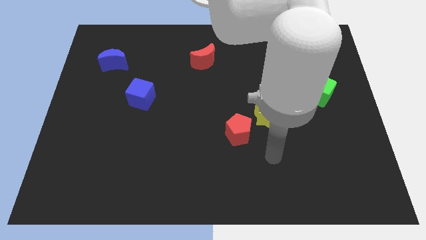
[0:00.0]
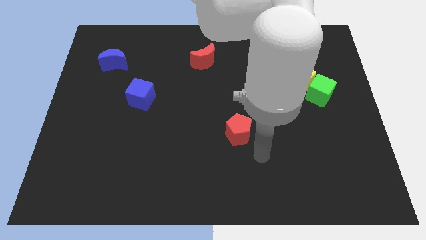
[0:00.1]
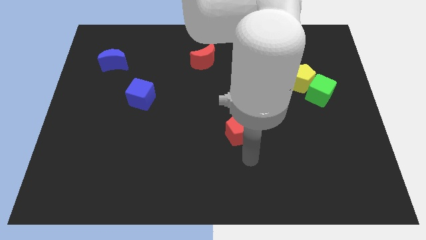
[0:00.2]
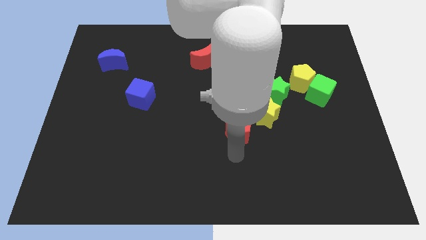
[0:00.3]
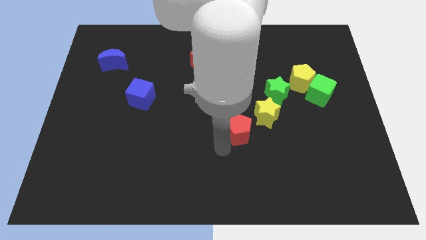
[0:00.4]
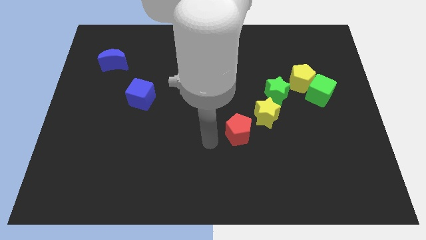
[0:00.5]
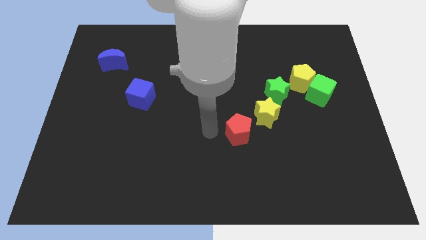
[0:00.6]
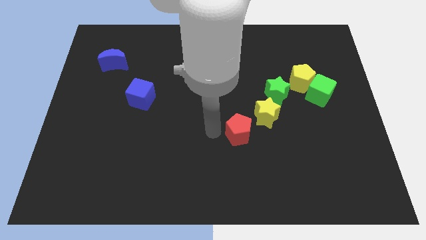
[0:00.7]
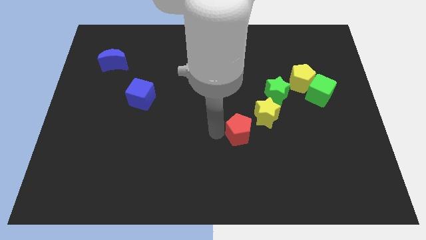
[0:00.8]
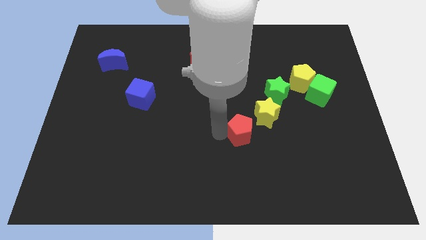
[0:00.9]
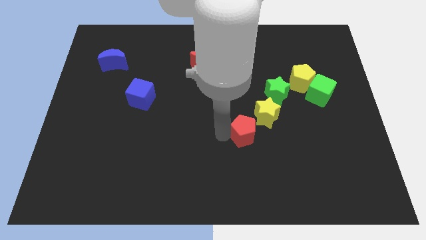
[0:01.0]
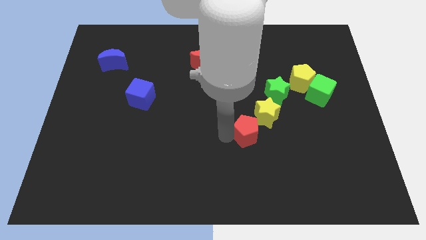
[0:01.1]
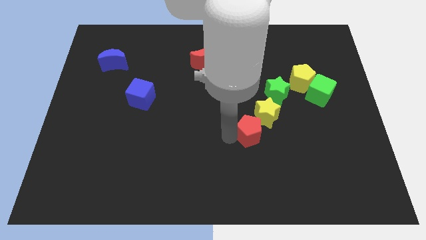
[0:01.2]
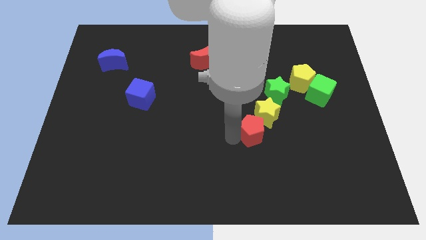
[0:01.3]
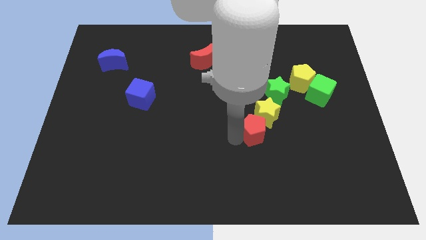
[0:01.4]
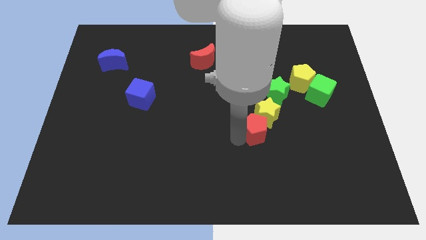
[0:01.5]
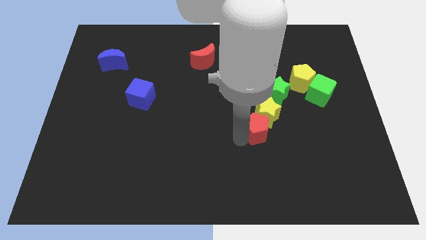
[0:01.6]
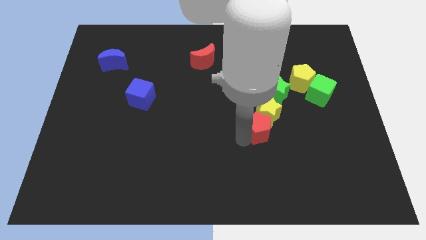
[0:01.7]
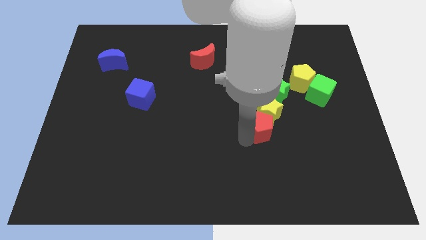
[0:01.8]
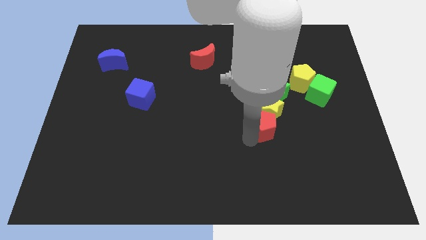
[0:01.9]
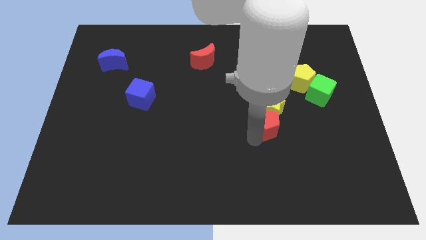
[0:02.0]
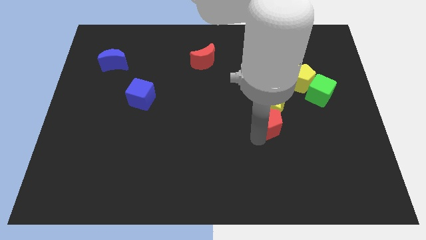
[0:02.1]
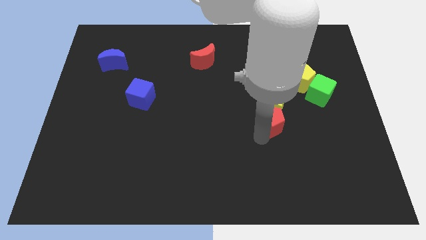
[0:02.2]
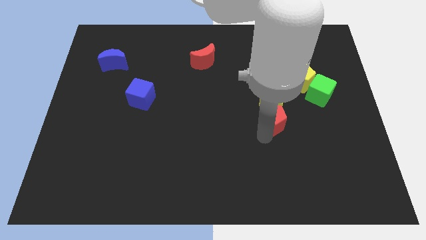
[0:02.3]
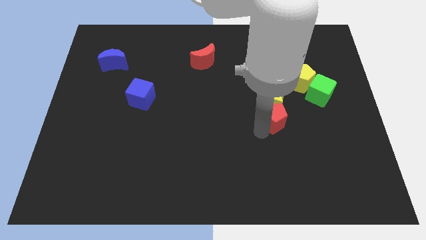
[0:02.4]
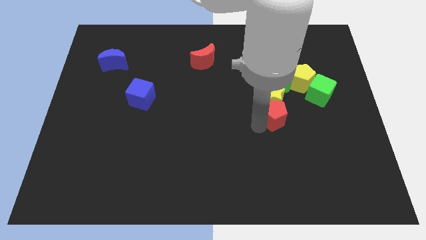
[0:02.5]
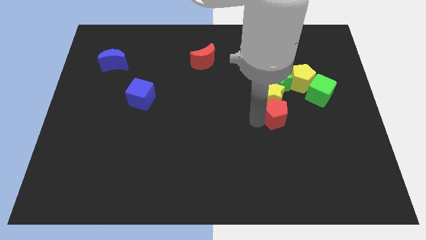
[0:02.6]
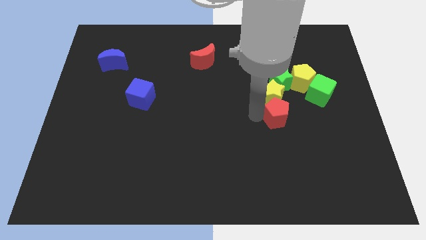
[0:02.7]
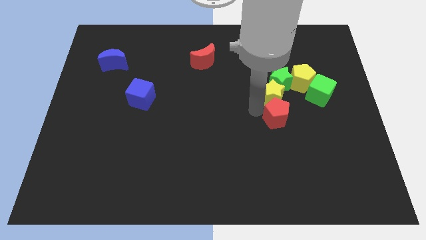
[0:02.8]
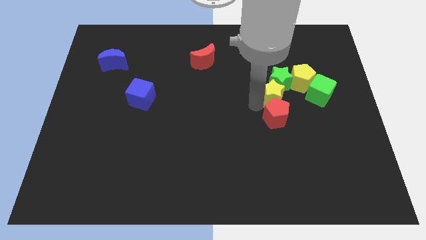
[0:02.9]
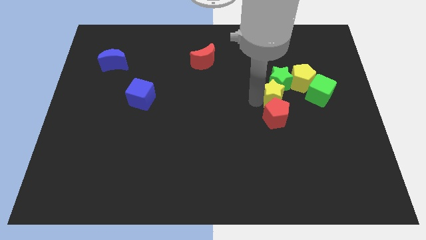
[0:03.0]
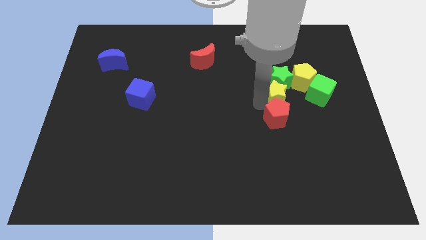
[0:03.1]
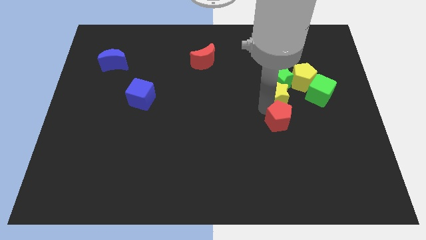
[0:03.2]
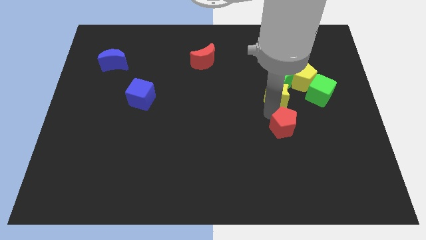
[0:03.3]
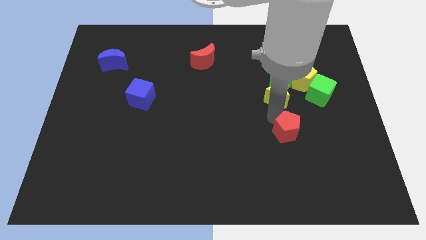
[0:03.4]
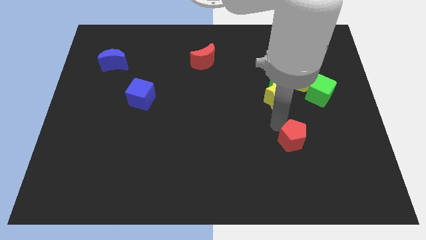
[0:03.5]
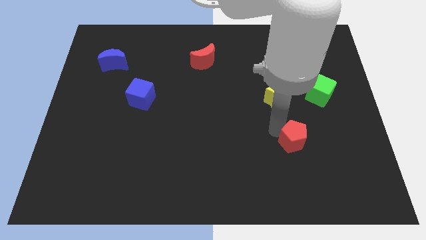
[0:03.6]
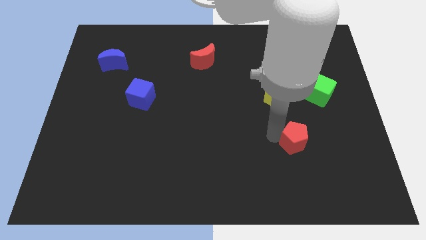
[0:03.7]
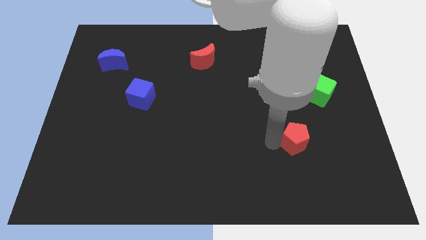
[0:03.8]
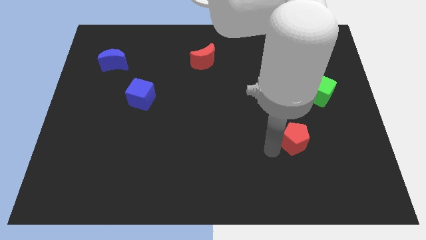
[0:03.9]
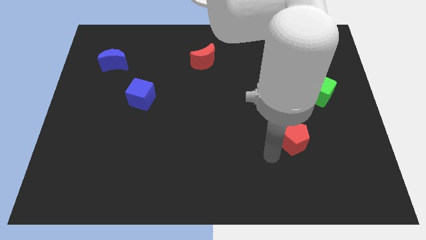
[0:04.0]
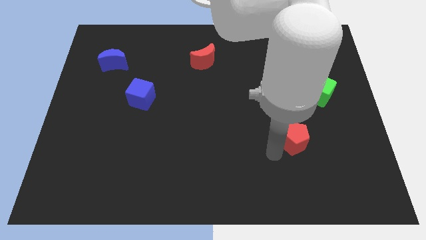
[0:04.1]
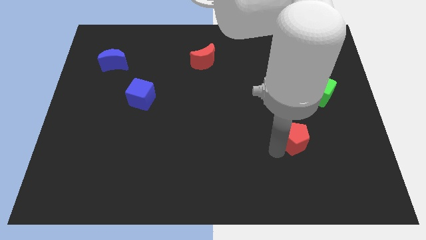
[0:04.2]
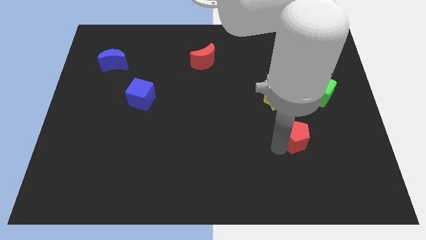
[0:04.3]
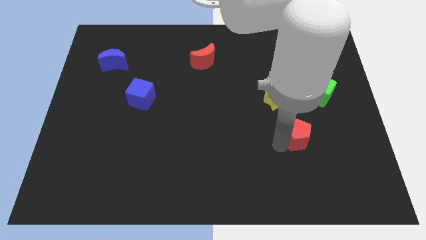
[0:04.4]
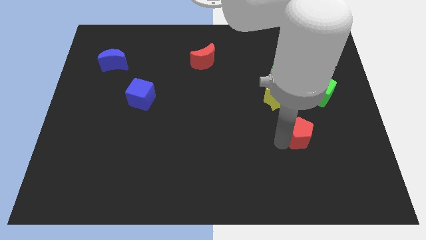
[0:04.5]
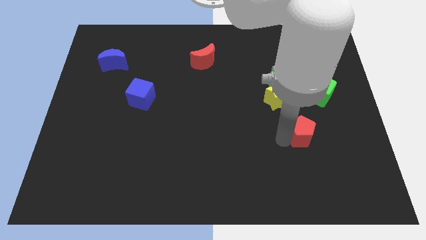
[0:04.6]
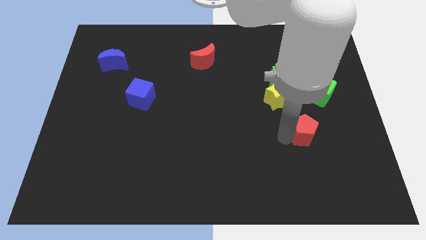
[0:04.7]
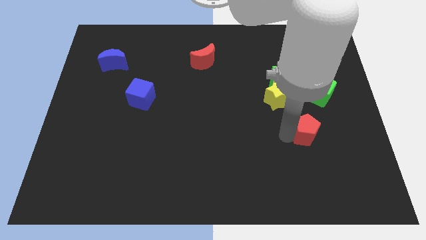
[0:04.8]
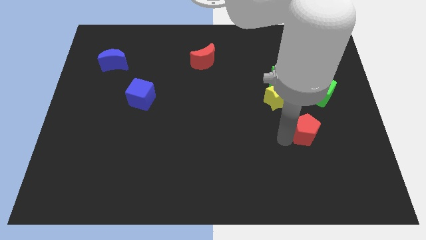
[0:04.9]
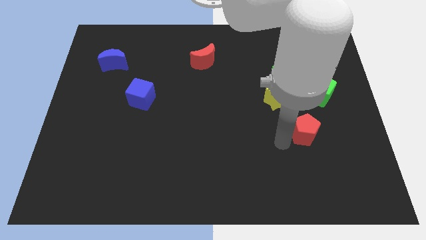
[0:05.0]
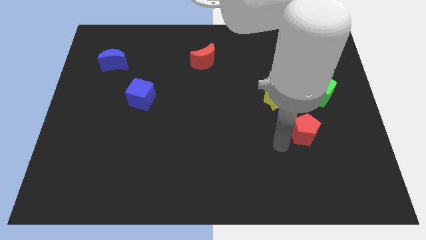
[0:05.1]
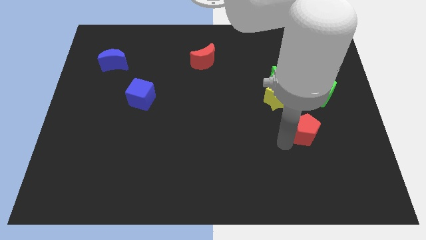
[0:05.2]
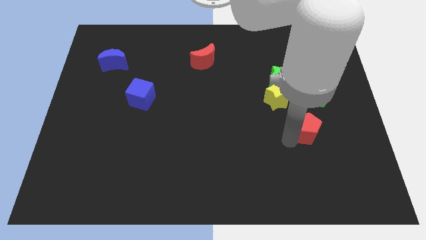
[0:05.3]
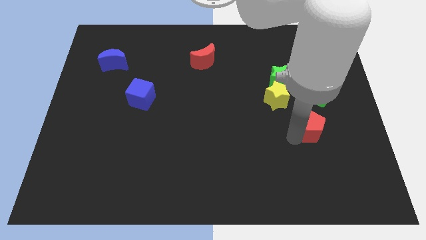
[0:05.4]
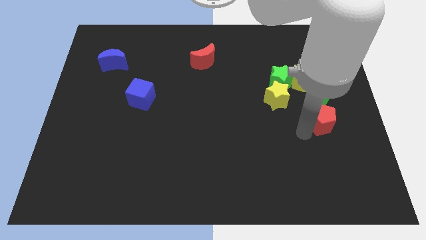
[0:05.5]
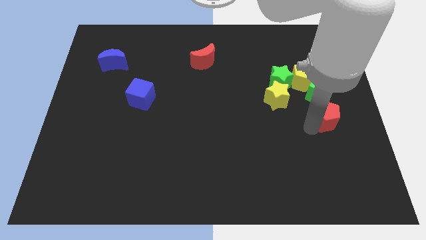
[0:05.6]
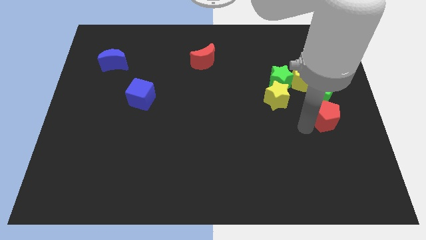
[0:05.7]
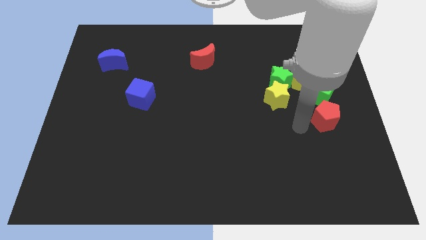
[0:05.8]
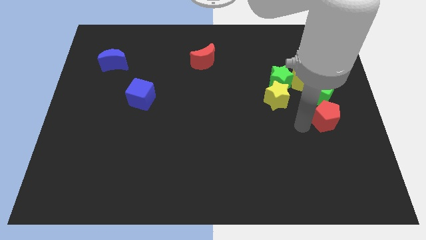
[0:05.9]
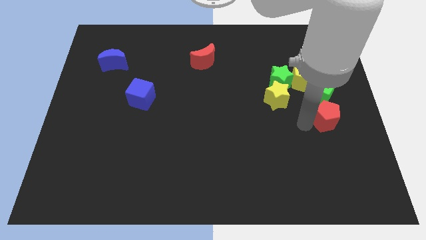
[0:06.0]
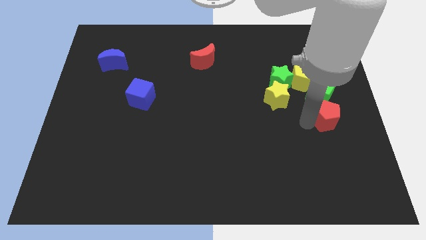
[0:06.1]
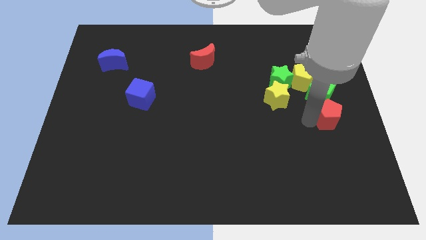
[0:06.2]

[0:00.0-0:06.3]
put the red pentagon to the right side

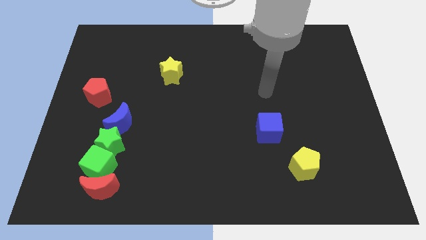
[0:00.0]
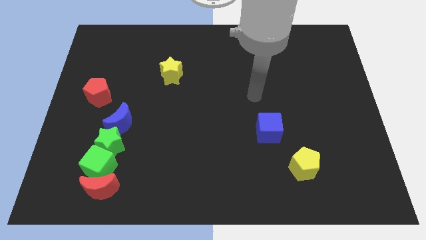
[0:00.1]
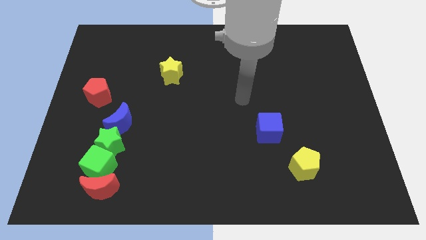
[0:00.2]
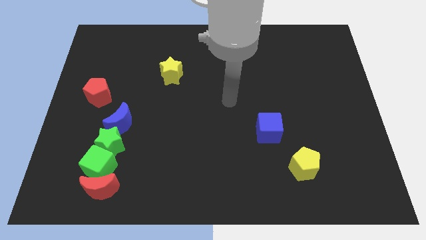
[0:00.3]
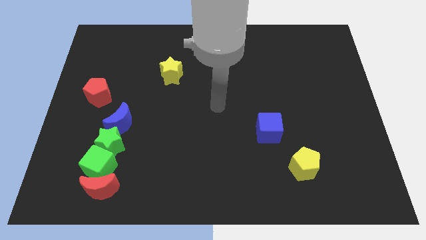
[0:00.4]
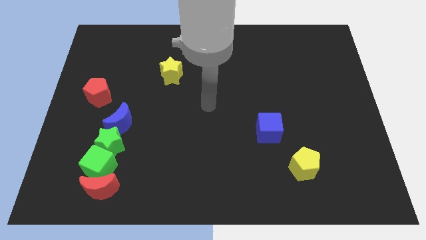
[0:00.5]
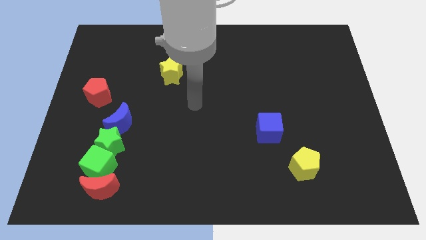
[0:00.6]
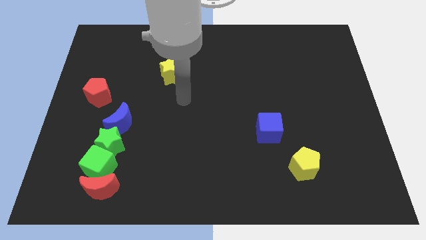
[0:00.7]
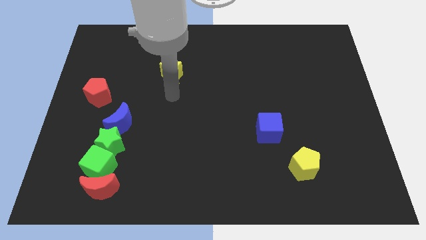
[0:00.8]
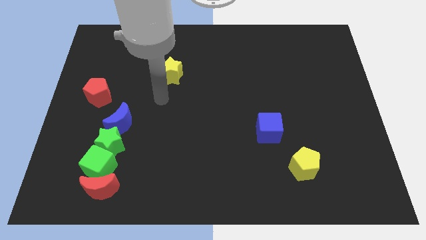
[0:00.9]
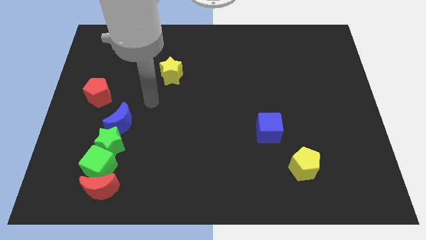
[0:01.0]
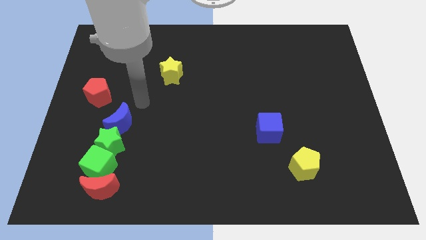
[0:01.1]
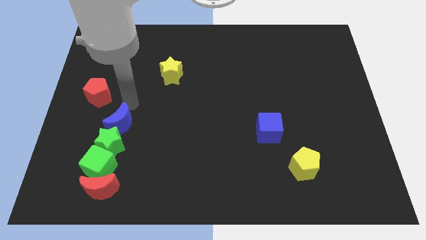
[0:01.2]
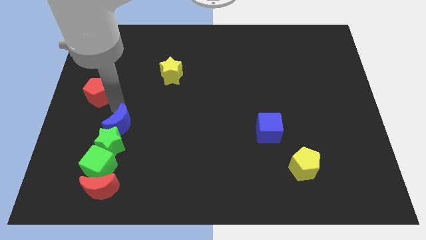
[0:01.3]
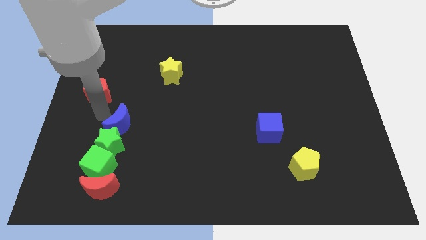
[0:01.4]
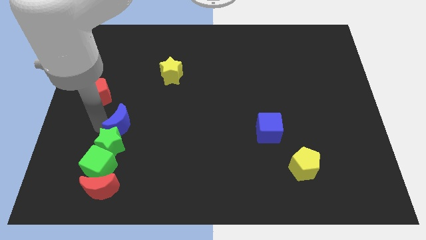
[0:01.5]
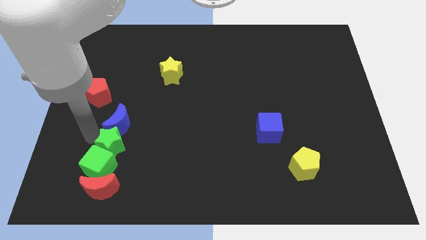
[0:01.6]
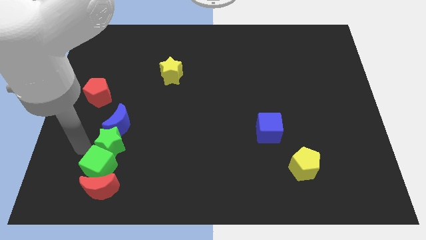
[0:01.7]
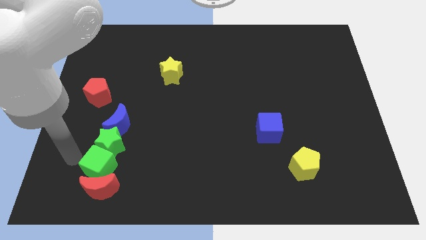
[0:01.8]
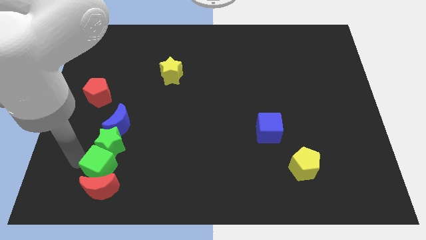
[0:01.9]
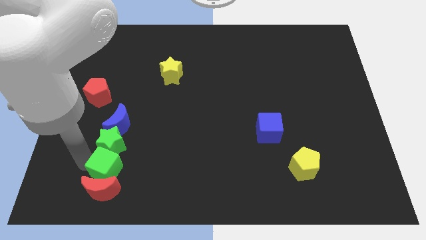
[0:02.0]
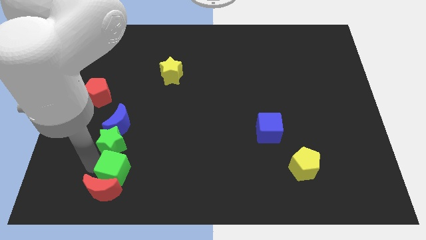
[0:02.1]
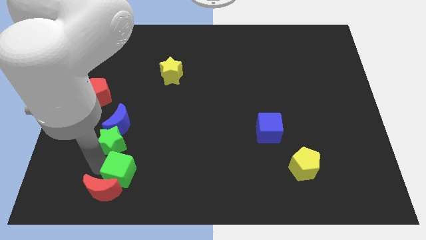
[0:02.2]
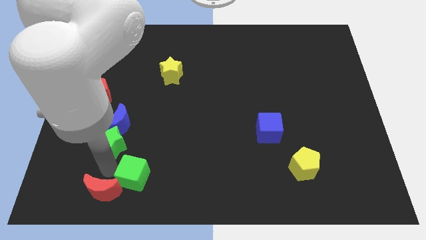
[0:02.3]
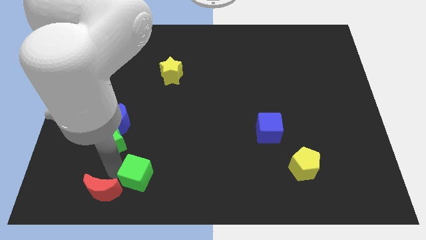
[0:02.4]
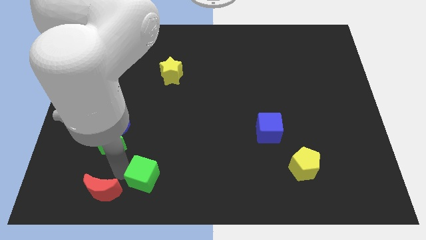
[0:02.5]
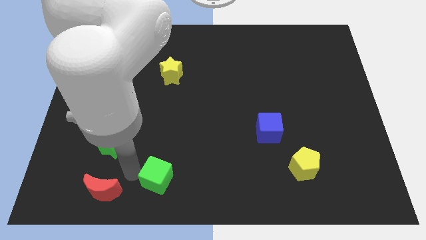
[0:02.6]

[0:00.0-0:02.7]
move the green cube to the bottom side
